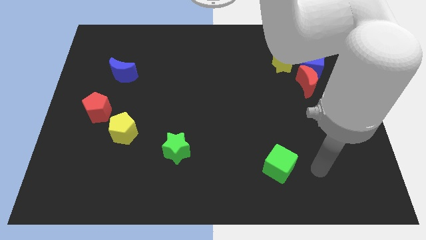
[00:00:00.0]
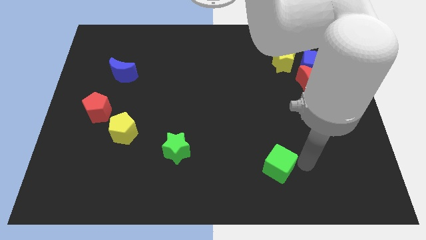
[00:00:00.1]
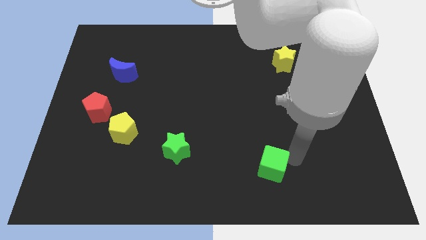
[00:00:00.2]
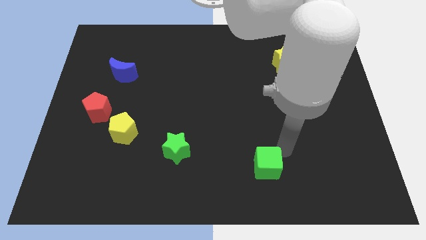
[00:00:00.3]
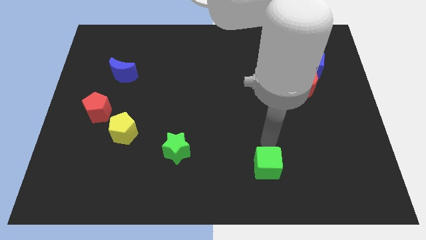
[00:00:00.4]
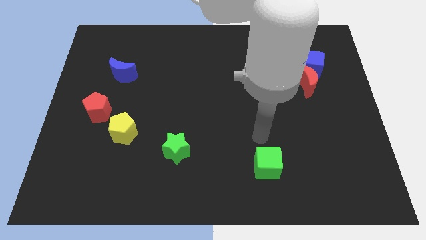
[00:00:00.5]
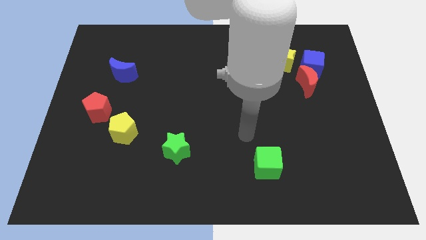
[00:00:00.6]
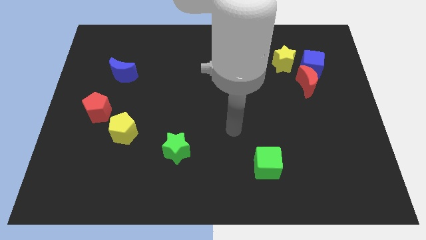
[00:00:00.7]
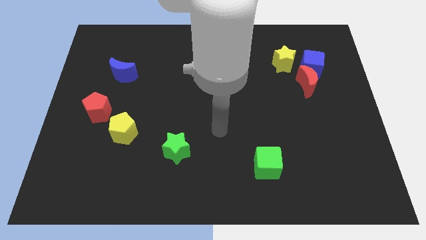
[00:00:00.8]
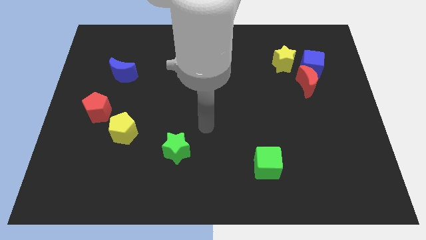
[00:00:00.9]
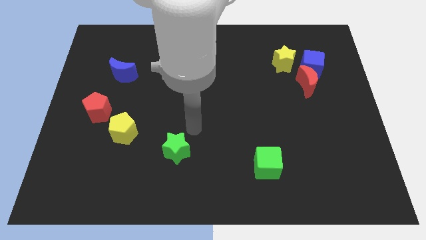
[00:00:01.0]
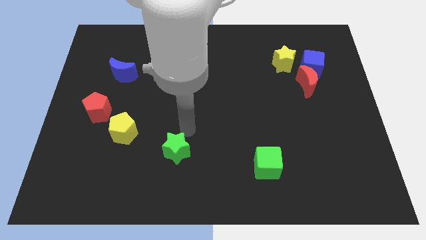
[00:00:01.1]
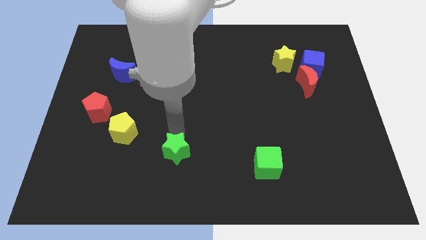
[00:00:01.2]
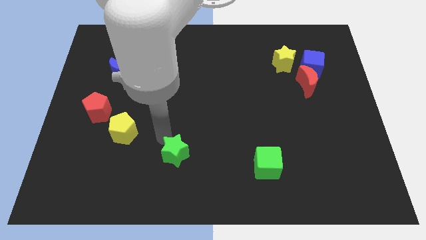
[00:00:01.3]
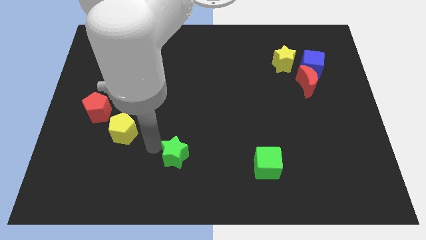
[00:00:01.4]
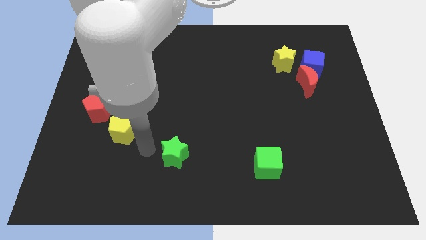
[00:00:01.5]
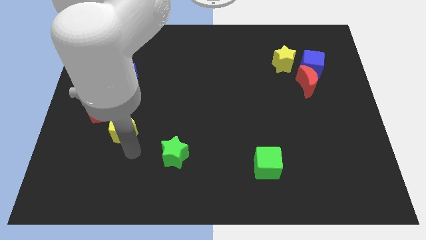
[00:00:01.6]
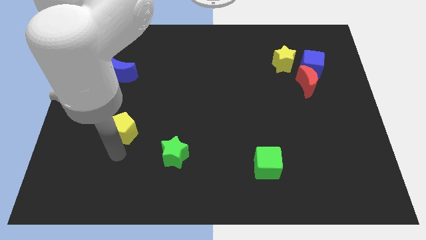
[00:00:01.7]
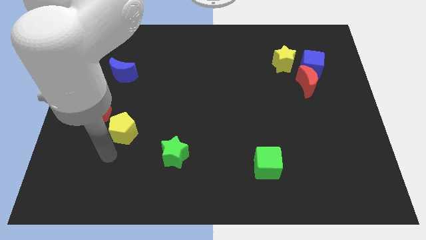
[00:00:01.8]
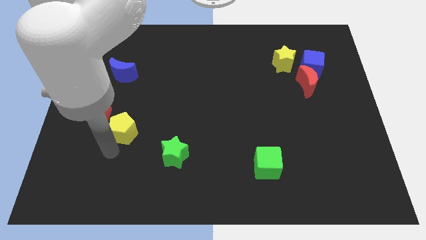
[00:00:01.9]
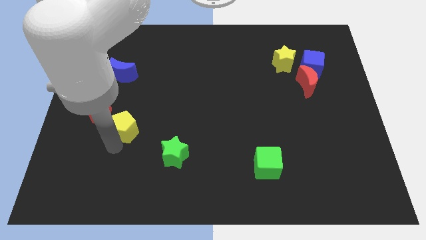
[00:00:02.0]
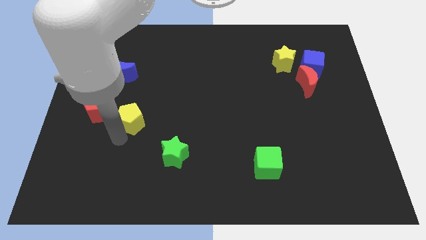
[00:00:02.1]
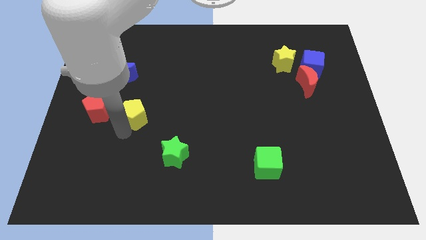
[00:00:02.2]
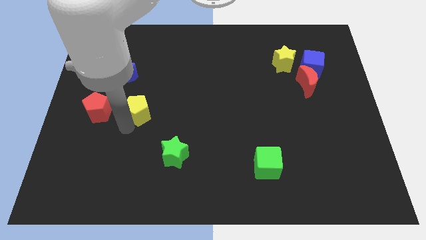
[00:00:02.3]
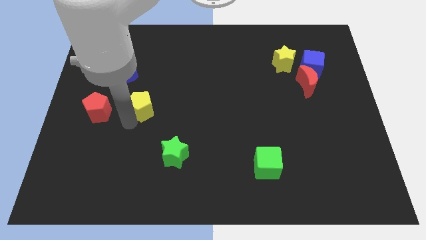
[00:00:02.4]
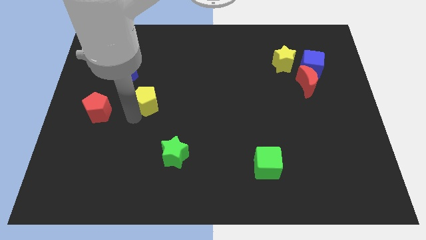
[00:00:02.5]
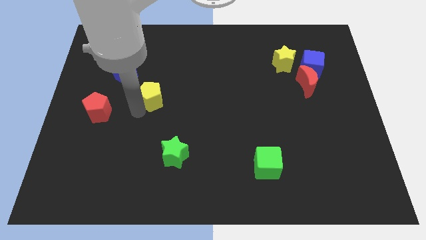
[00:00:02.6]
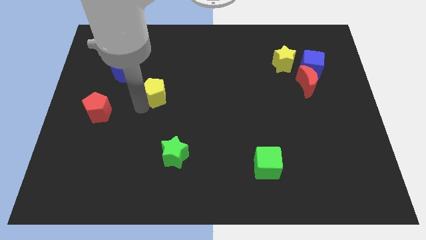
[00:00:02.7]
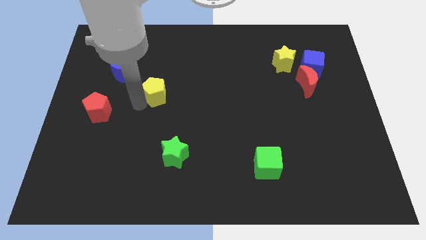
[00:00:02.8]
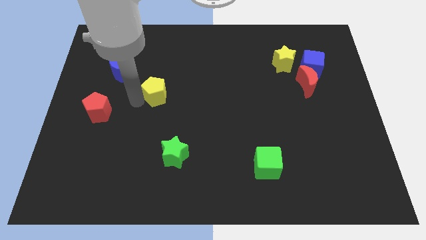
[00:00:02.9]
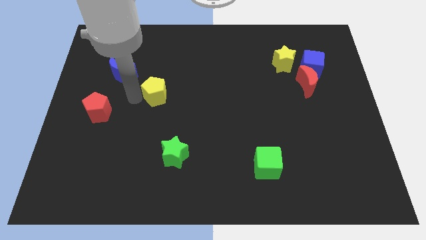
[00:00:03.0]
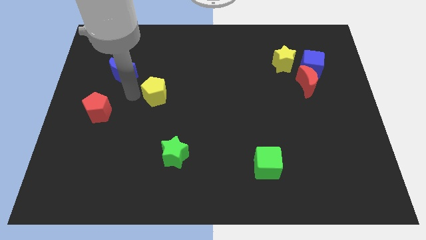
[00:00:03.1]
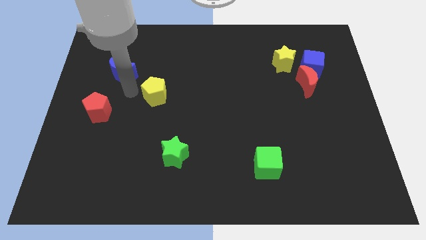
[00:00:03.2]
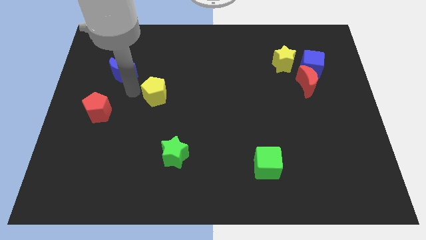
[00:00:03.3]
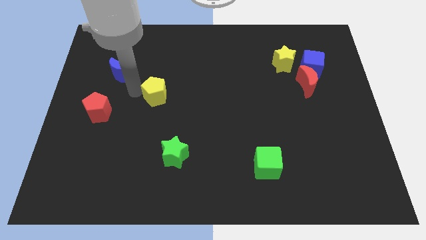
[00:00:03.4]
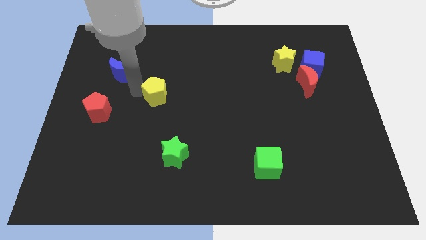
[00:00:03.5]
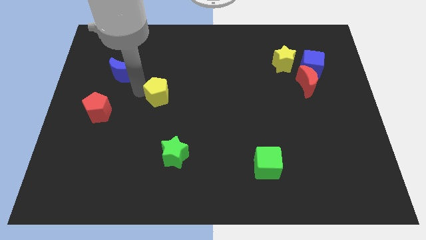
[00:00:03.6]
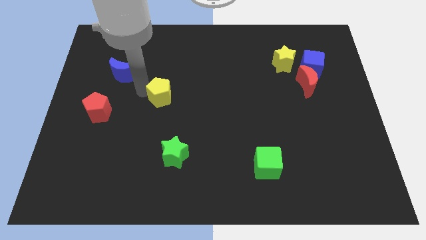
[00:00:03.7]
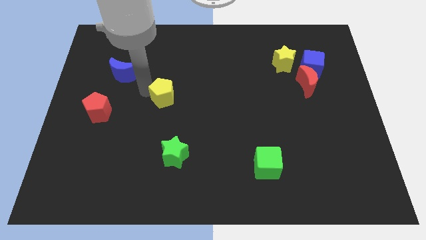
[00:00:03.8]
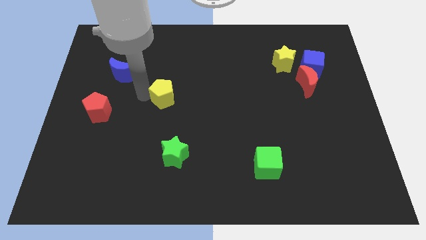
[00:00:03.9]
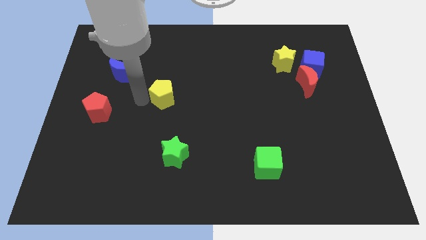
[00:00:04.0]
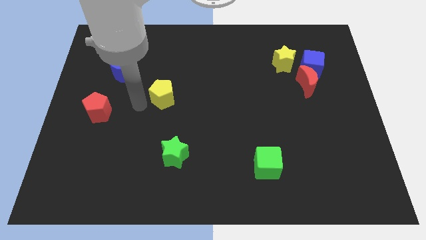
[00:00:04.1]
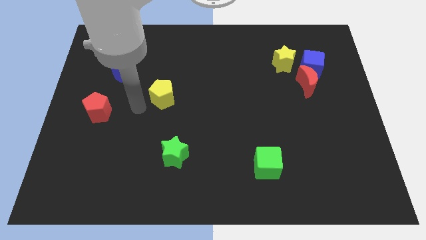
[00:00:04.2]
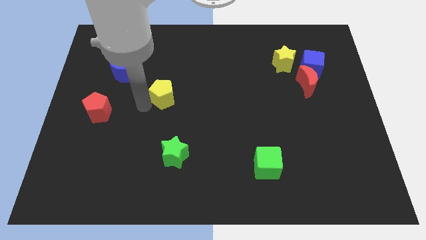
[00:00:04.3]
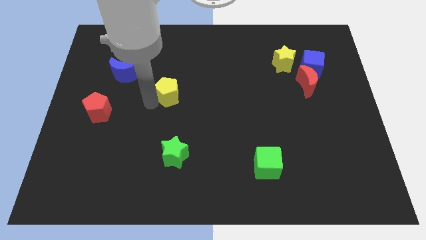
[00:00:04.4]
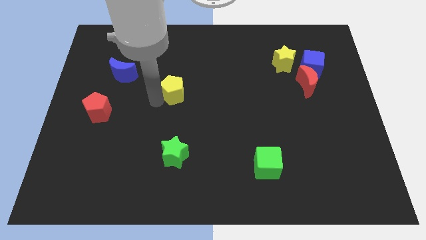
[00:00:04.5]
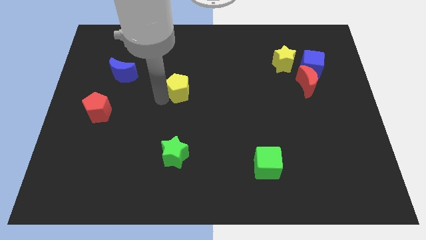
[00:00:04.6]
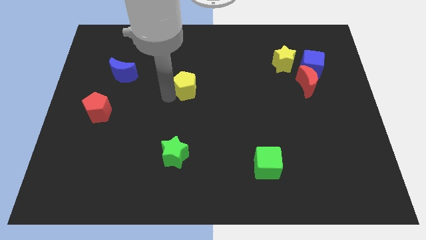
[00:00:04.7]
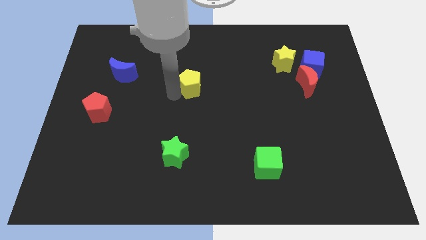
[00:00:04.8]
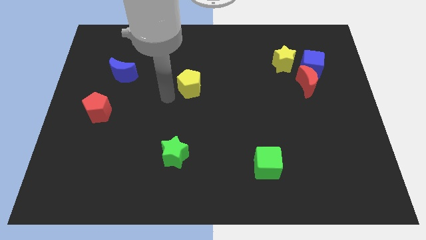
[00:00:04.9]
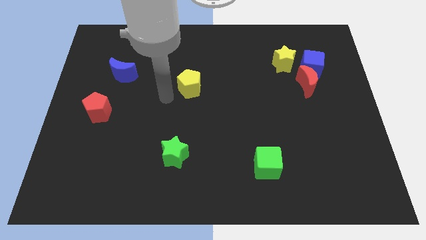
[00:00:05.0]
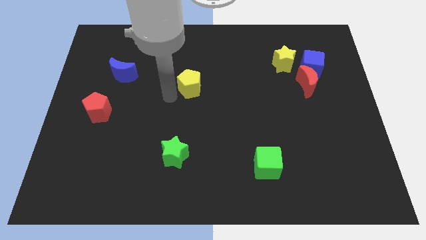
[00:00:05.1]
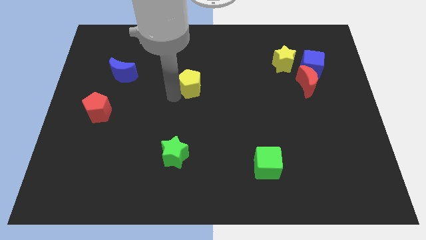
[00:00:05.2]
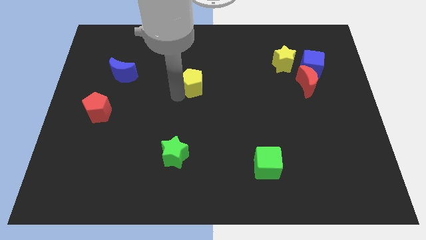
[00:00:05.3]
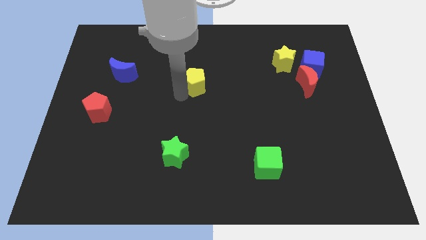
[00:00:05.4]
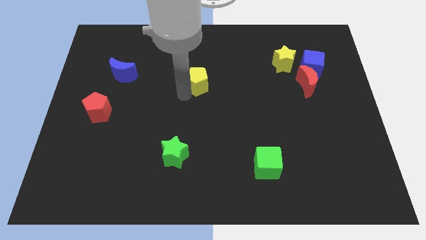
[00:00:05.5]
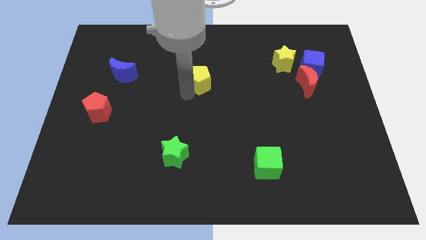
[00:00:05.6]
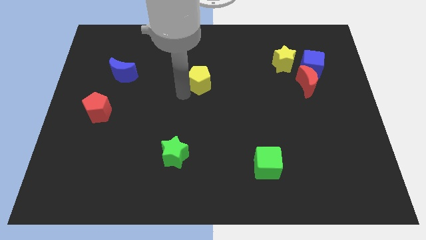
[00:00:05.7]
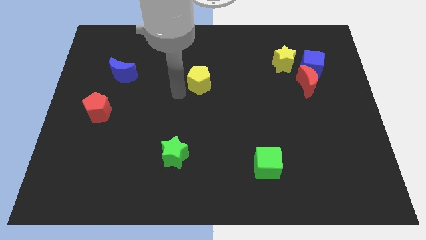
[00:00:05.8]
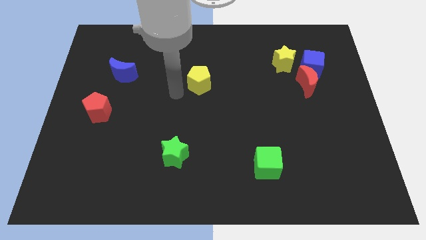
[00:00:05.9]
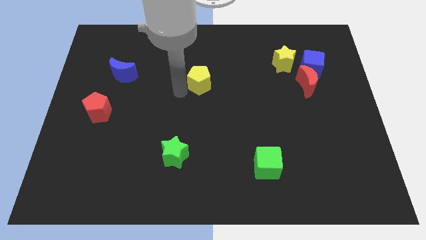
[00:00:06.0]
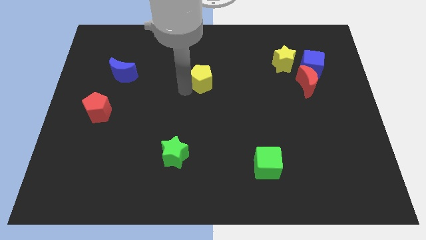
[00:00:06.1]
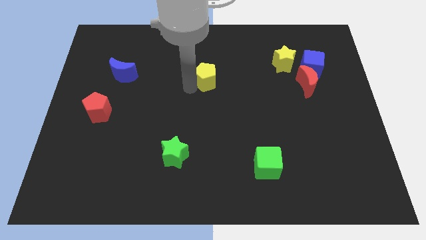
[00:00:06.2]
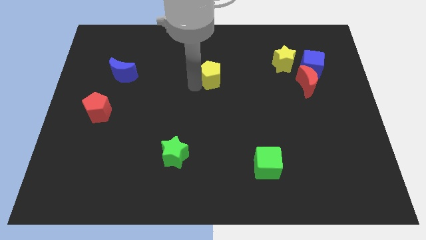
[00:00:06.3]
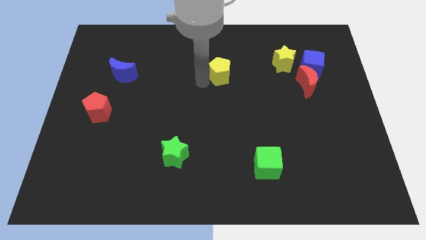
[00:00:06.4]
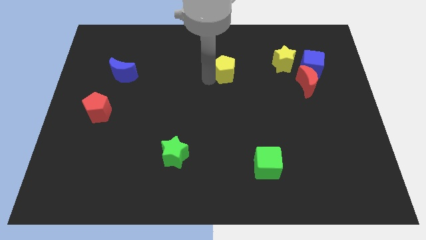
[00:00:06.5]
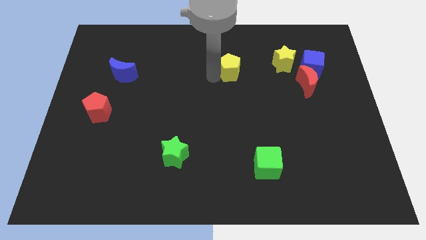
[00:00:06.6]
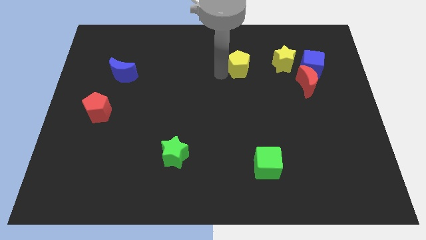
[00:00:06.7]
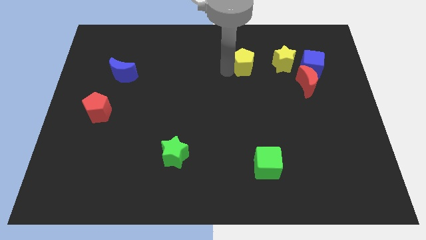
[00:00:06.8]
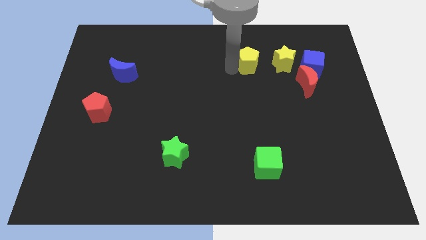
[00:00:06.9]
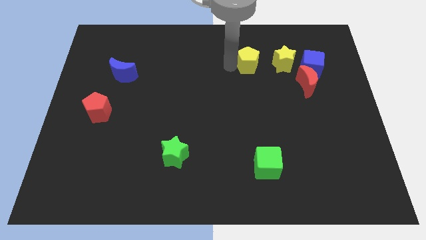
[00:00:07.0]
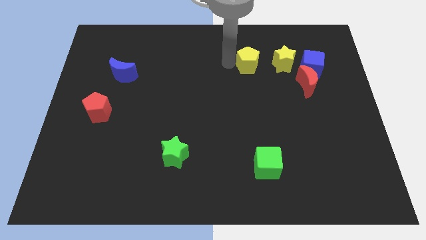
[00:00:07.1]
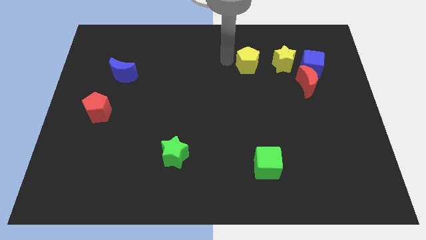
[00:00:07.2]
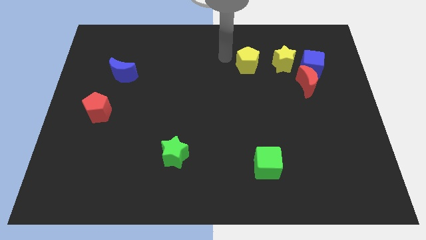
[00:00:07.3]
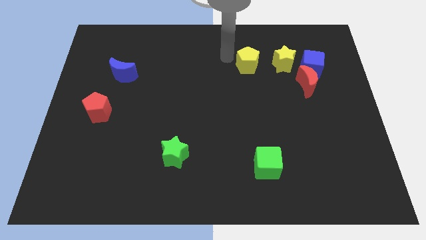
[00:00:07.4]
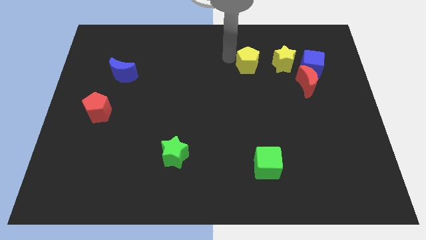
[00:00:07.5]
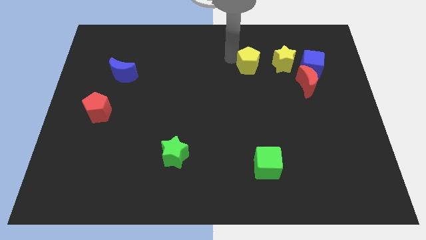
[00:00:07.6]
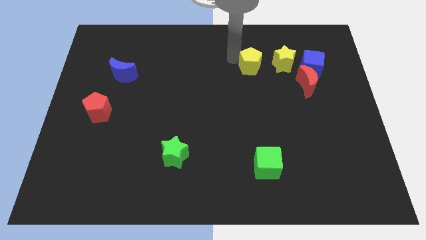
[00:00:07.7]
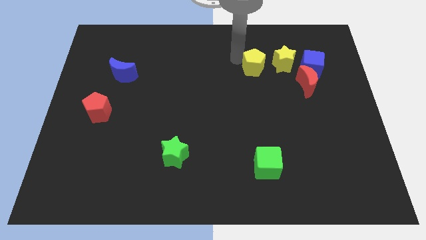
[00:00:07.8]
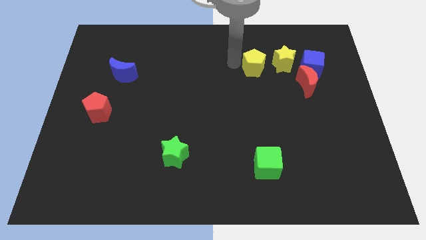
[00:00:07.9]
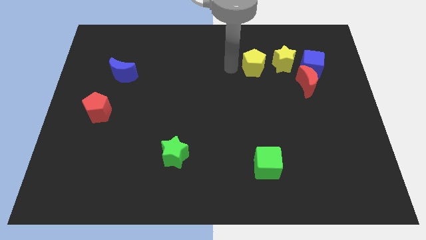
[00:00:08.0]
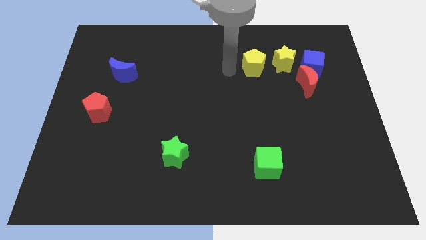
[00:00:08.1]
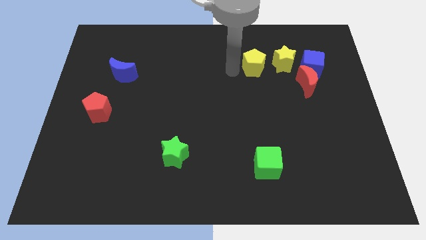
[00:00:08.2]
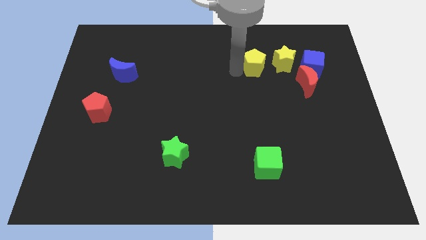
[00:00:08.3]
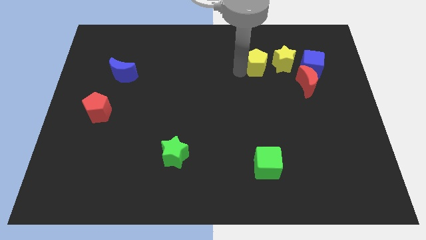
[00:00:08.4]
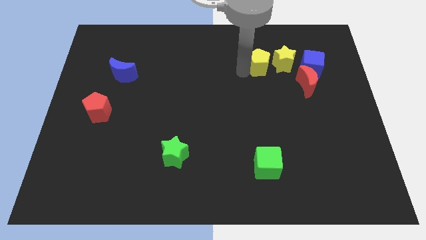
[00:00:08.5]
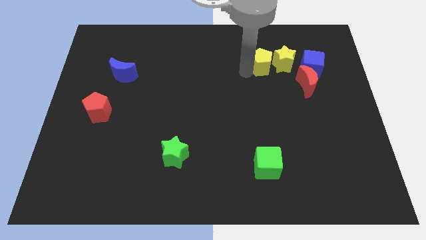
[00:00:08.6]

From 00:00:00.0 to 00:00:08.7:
put the yellow pentagon next to the yellow star
